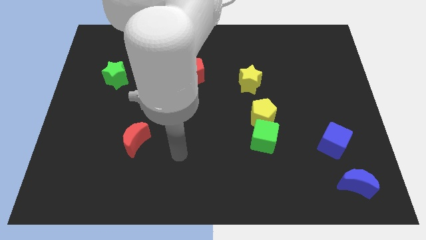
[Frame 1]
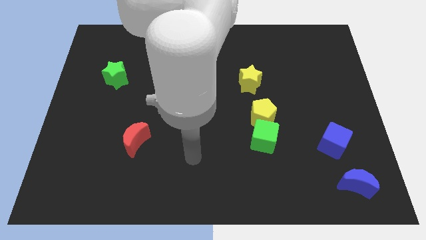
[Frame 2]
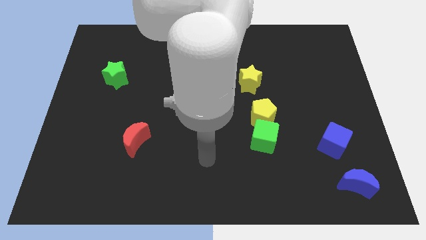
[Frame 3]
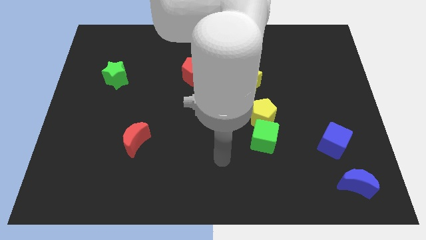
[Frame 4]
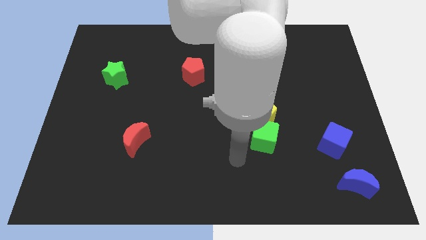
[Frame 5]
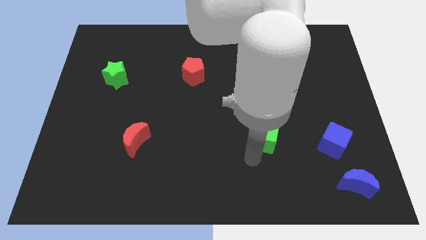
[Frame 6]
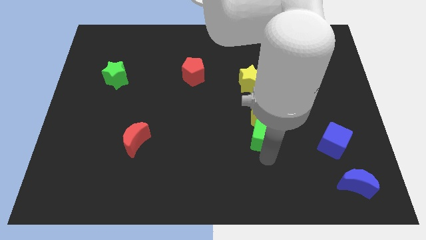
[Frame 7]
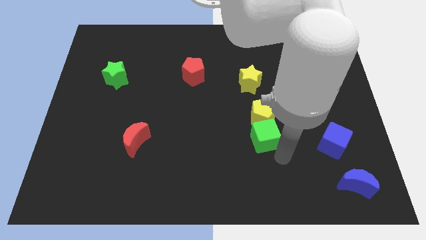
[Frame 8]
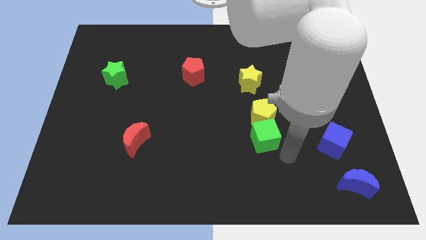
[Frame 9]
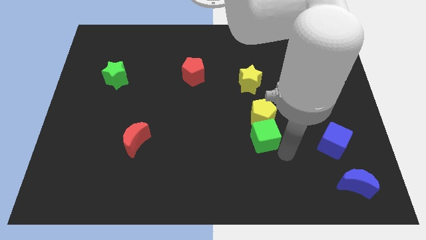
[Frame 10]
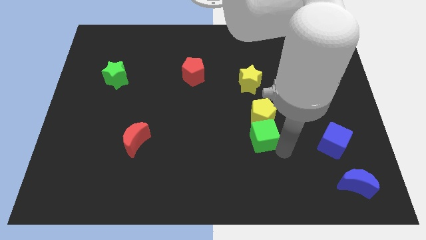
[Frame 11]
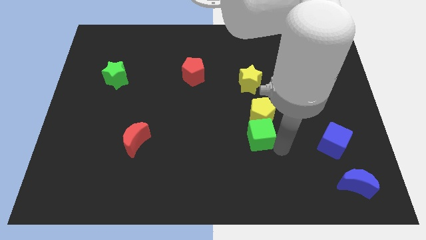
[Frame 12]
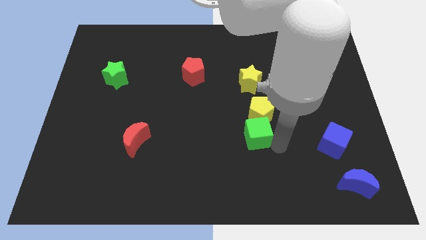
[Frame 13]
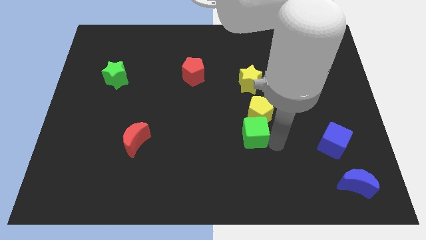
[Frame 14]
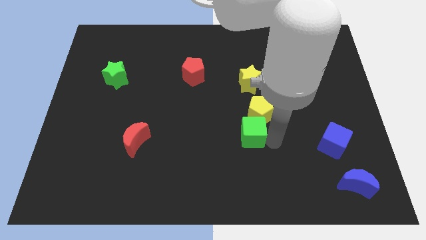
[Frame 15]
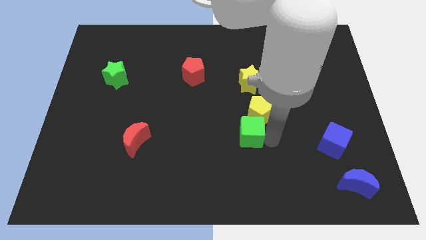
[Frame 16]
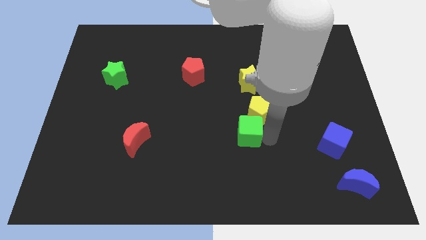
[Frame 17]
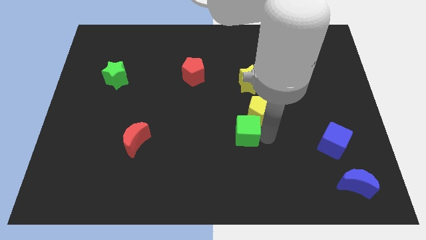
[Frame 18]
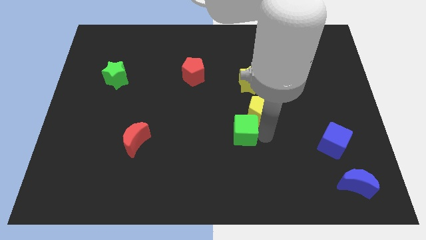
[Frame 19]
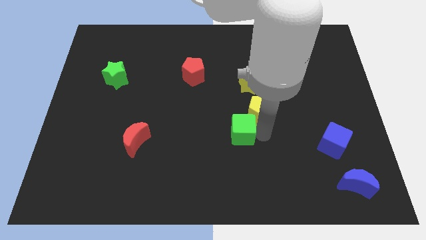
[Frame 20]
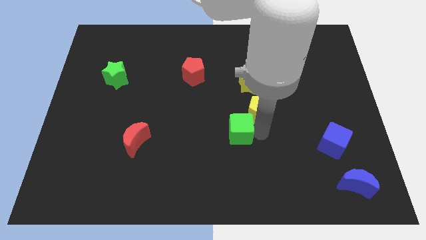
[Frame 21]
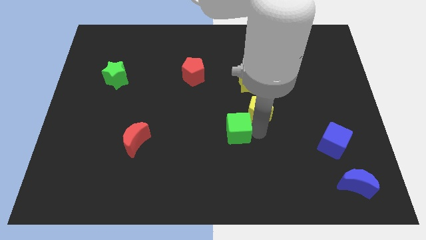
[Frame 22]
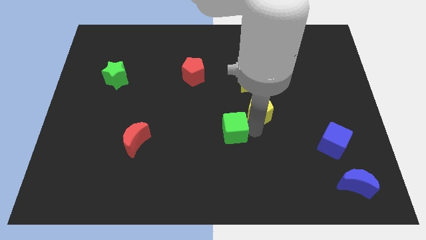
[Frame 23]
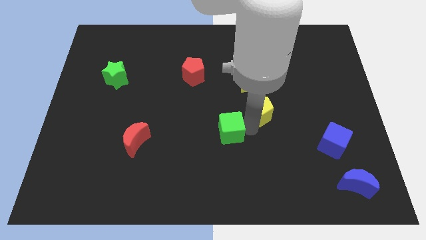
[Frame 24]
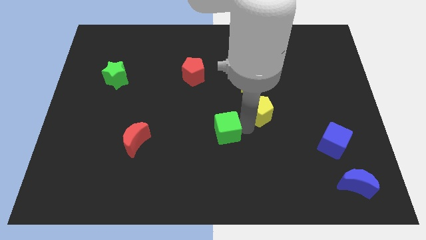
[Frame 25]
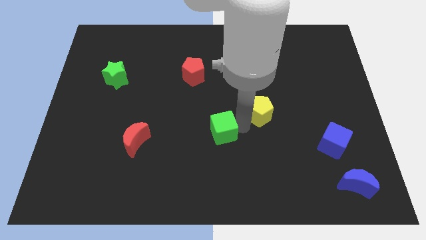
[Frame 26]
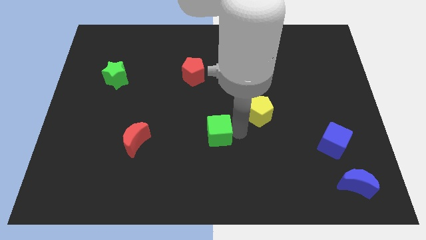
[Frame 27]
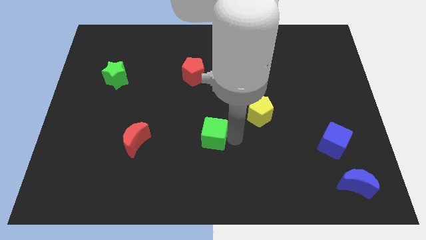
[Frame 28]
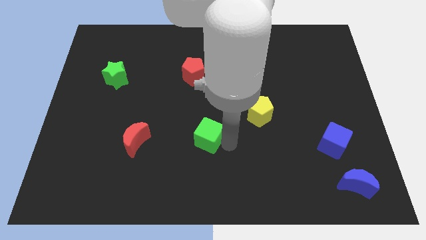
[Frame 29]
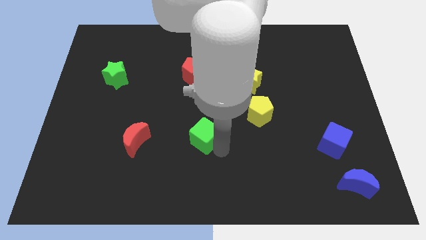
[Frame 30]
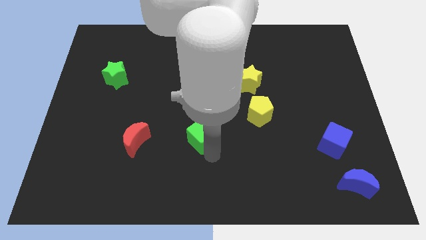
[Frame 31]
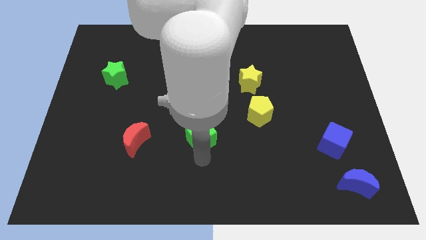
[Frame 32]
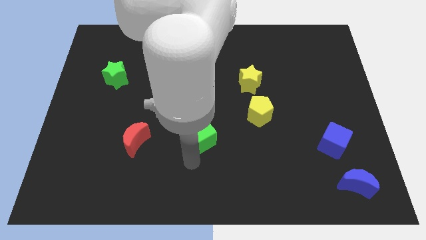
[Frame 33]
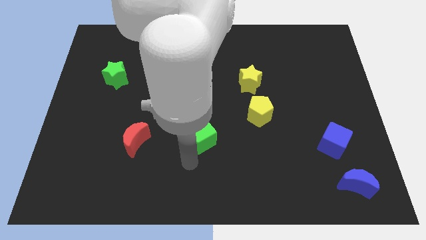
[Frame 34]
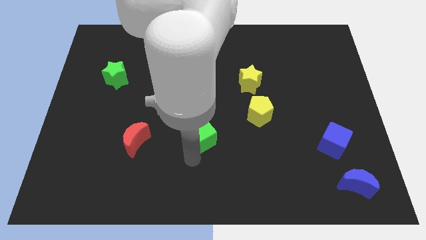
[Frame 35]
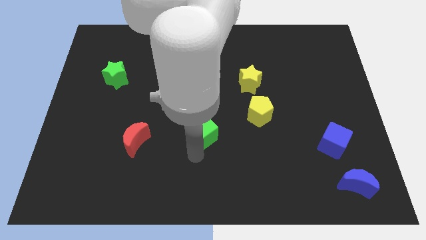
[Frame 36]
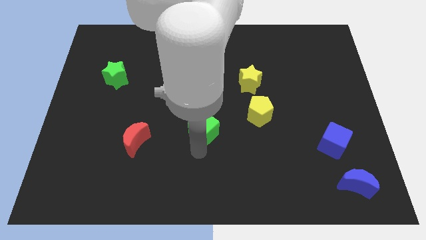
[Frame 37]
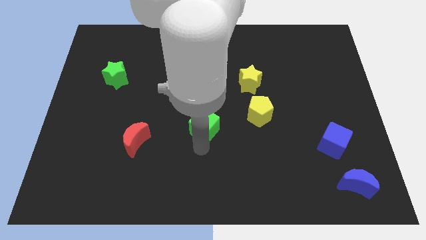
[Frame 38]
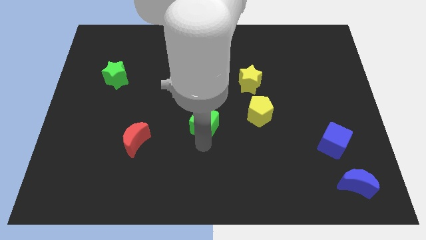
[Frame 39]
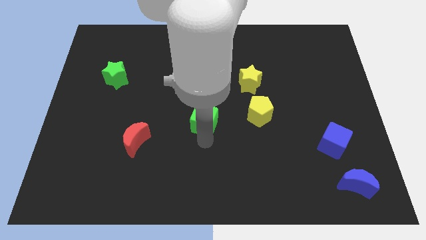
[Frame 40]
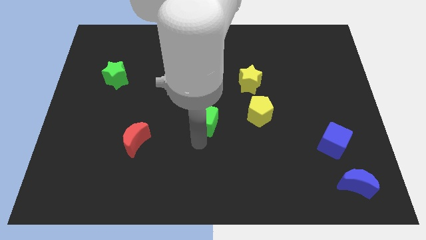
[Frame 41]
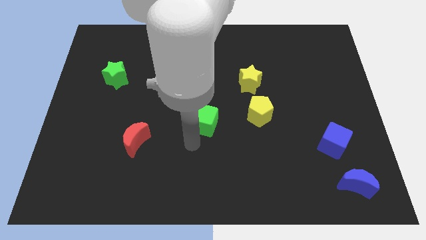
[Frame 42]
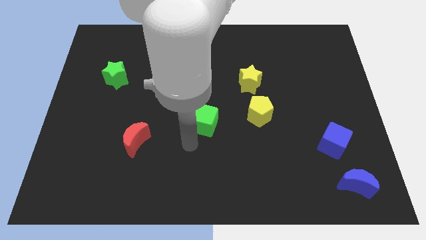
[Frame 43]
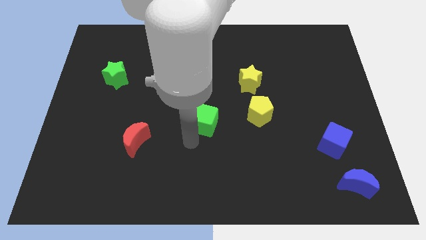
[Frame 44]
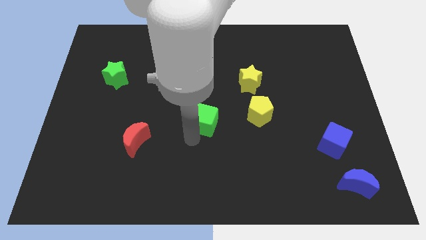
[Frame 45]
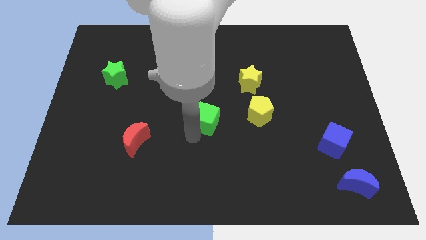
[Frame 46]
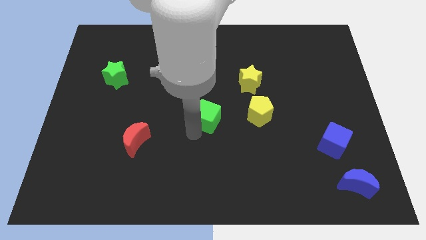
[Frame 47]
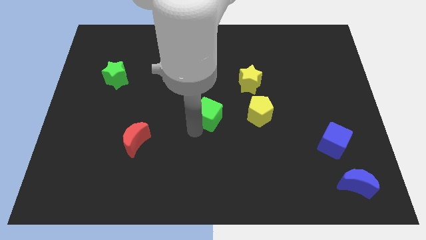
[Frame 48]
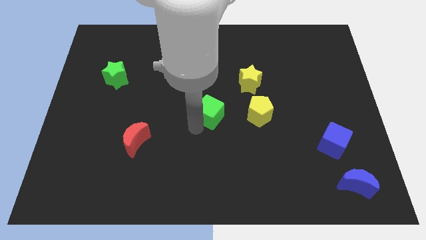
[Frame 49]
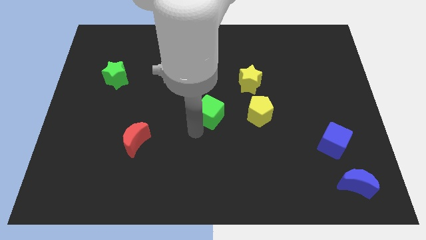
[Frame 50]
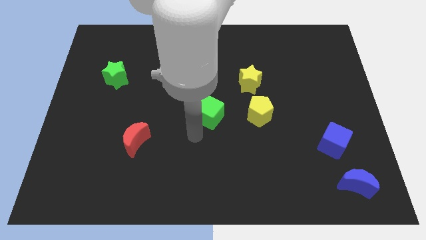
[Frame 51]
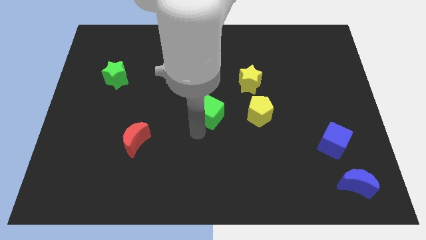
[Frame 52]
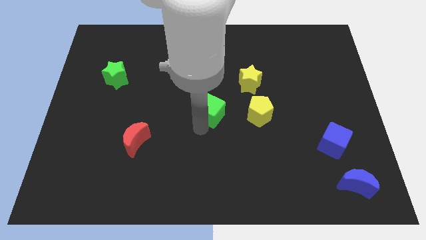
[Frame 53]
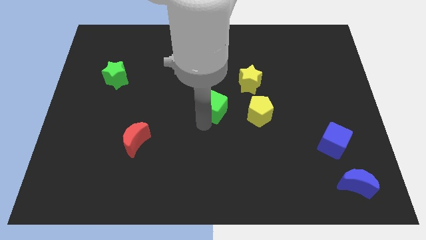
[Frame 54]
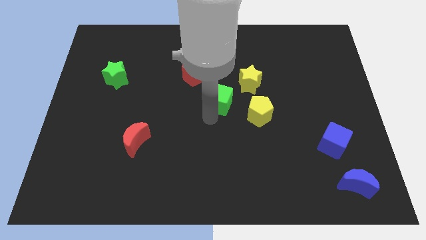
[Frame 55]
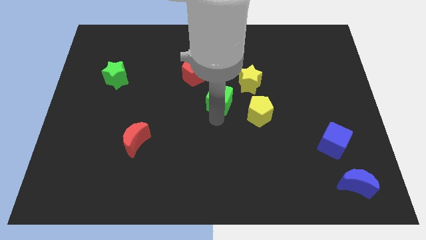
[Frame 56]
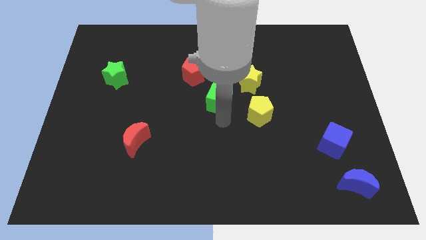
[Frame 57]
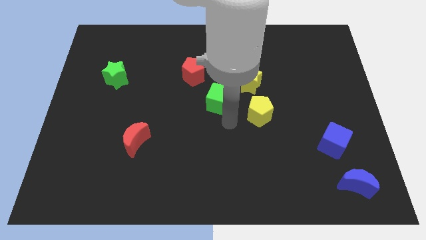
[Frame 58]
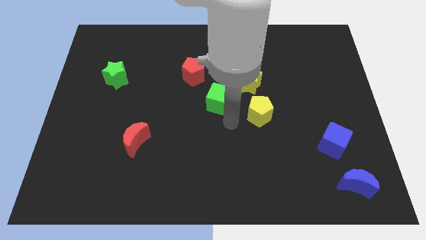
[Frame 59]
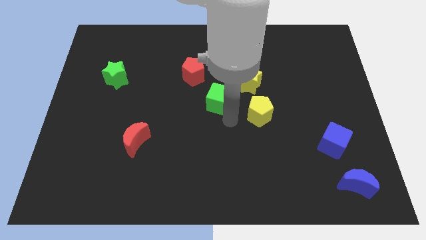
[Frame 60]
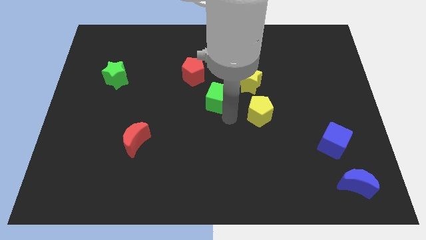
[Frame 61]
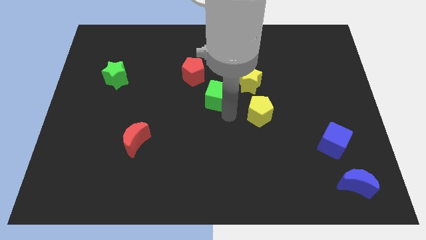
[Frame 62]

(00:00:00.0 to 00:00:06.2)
push the green cube just left of the yellow star

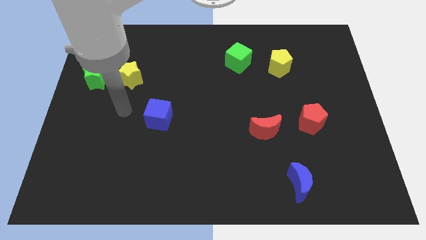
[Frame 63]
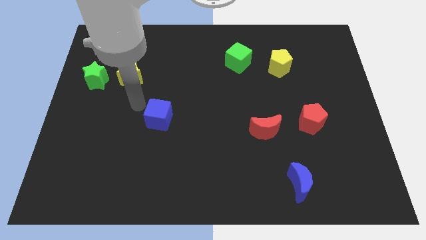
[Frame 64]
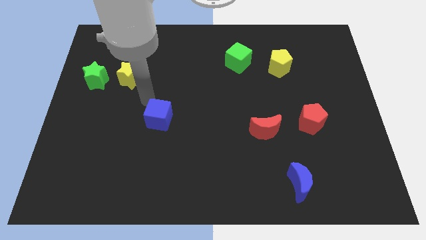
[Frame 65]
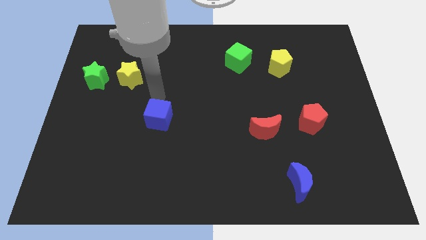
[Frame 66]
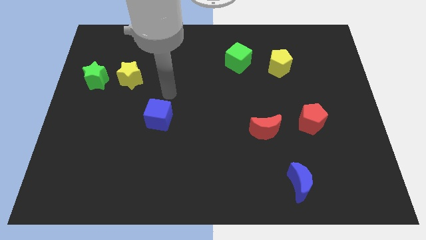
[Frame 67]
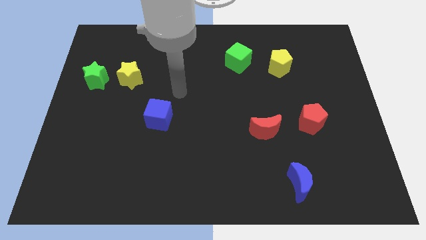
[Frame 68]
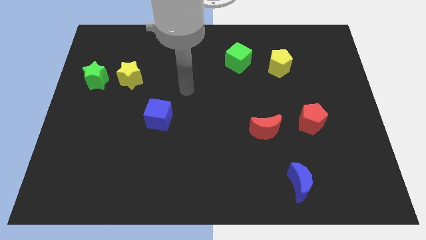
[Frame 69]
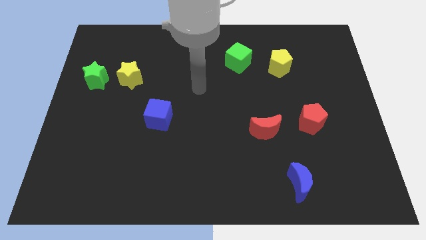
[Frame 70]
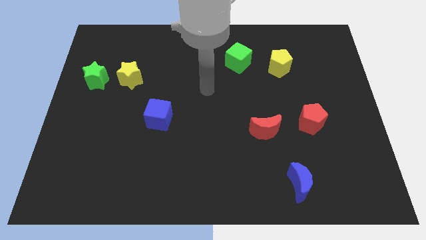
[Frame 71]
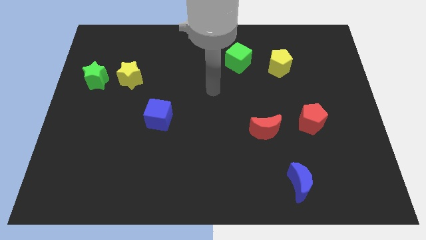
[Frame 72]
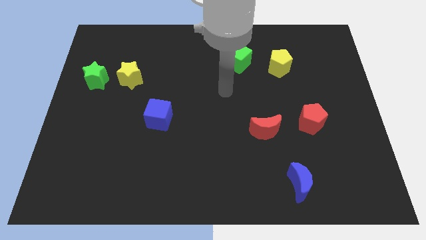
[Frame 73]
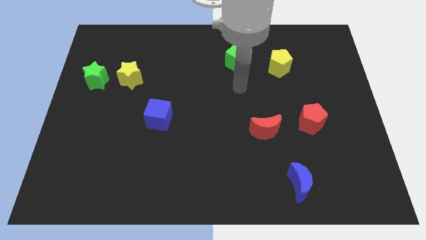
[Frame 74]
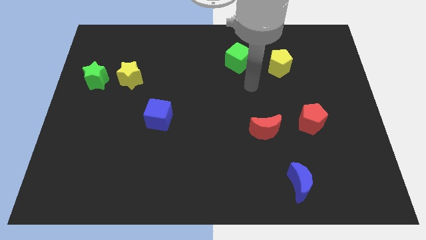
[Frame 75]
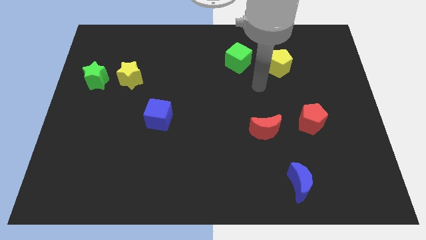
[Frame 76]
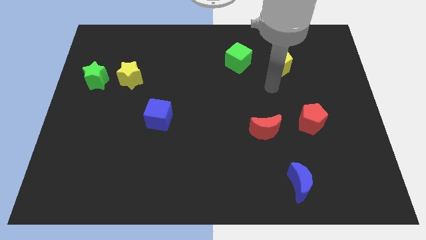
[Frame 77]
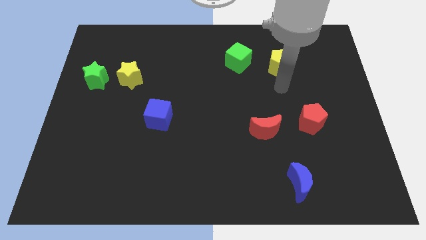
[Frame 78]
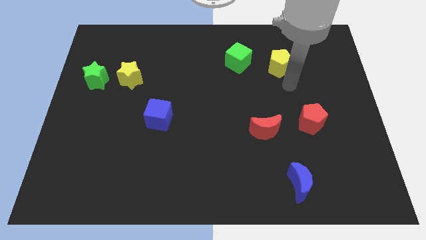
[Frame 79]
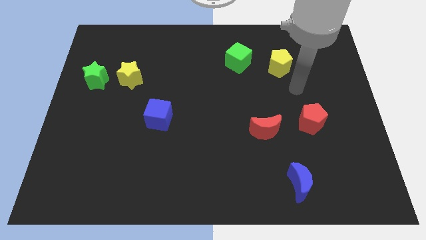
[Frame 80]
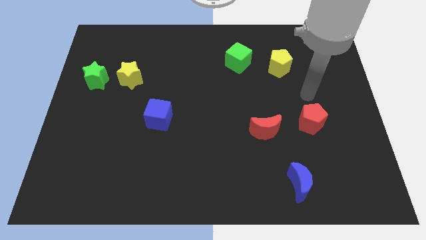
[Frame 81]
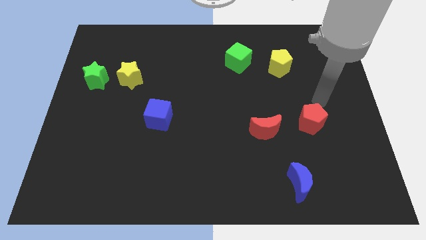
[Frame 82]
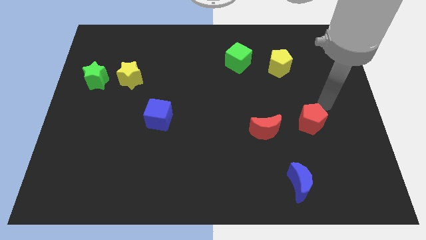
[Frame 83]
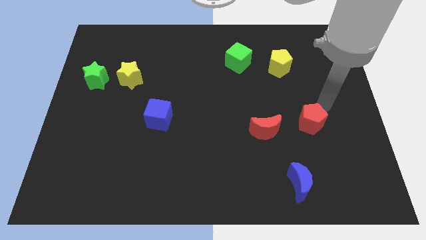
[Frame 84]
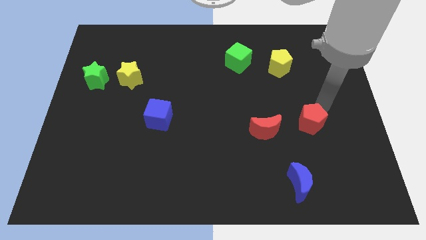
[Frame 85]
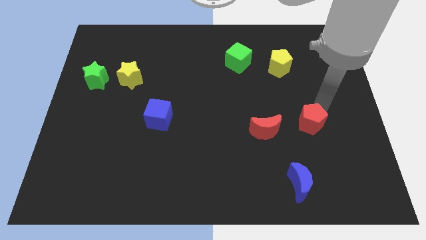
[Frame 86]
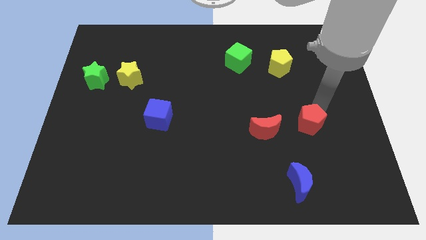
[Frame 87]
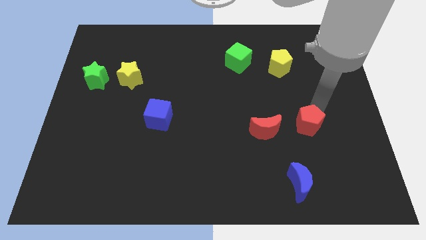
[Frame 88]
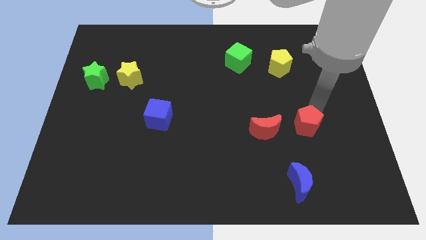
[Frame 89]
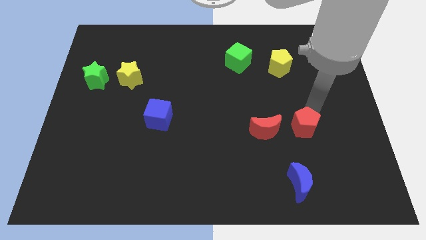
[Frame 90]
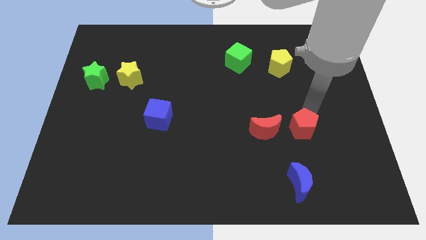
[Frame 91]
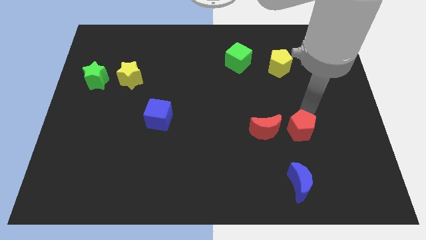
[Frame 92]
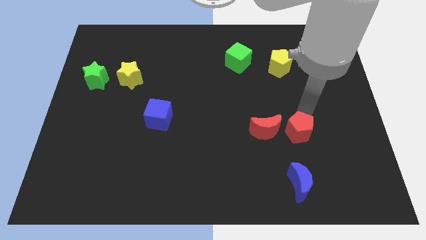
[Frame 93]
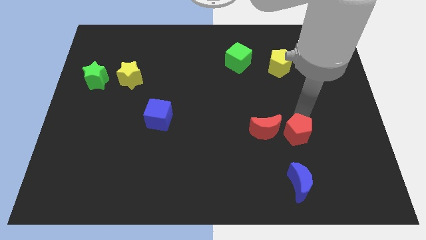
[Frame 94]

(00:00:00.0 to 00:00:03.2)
move the red pentagon diagonally down and to the right of the red moon
